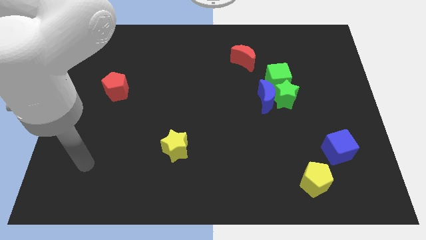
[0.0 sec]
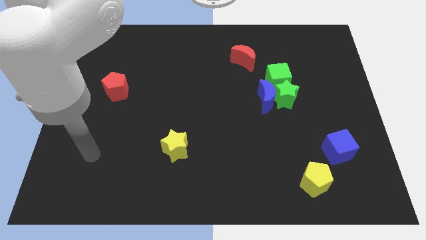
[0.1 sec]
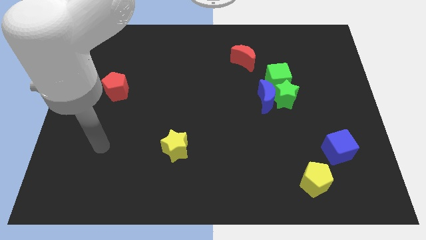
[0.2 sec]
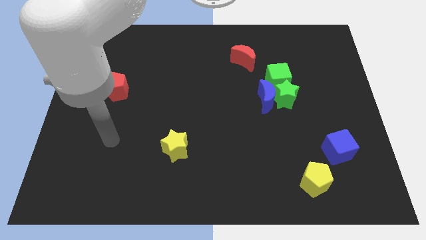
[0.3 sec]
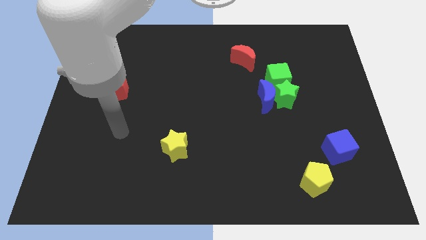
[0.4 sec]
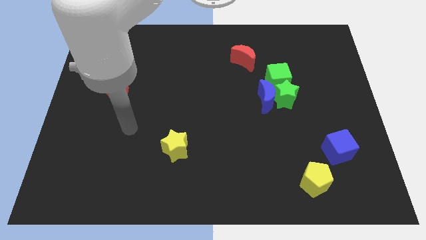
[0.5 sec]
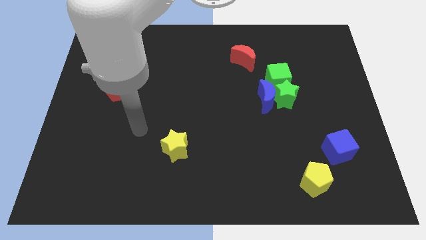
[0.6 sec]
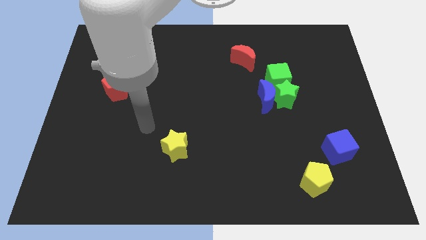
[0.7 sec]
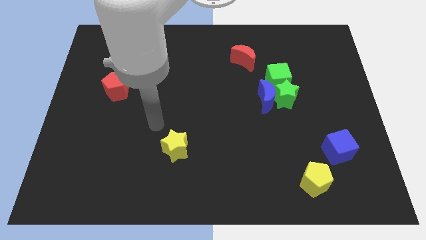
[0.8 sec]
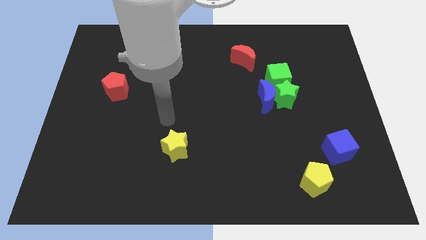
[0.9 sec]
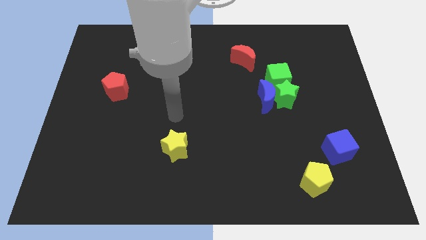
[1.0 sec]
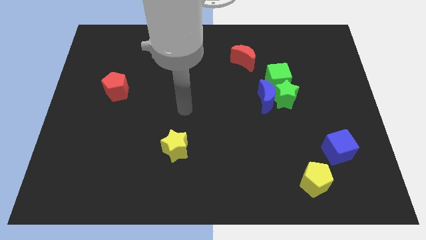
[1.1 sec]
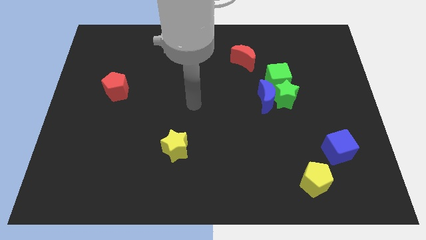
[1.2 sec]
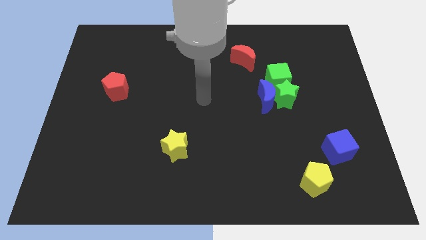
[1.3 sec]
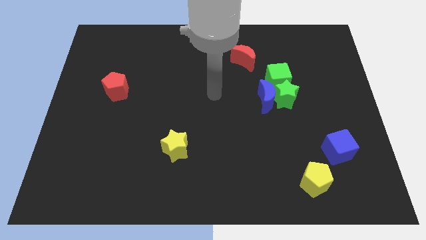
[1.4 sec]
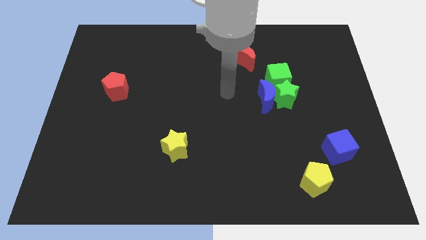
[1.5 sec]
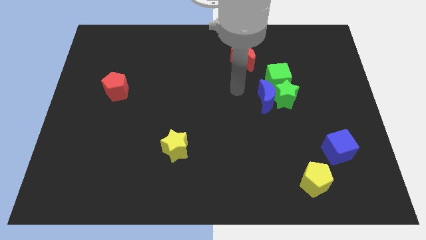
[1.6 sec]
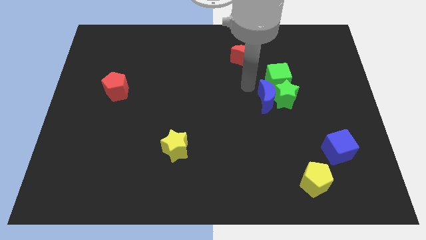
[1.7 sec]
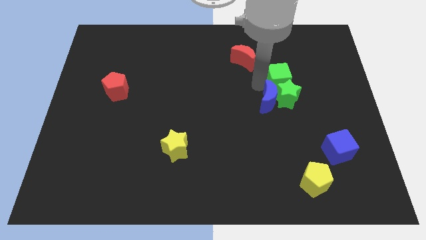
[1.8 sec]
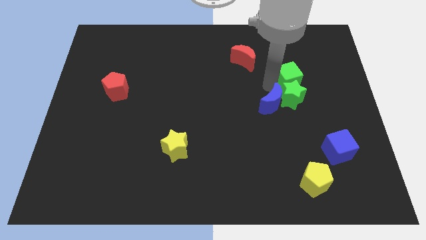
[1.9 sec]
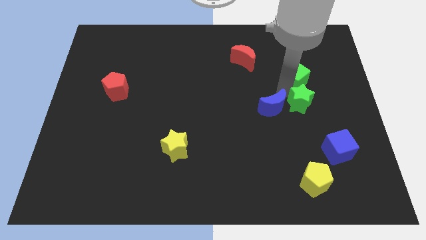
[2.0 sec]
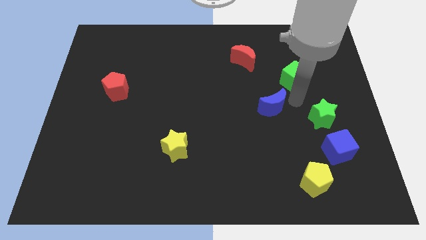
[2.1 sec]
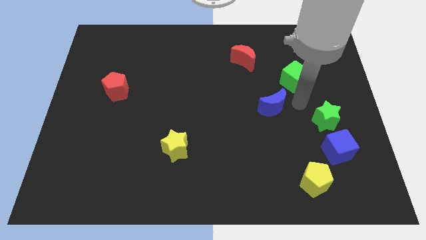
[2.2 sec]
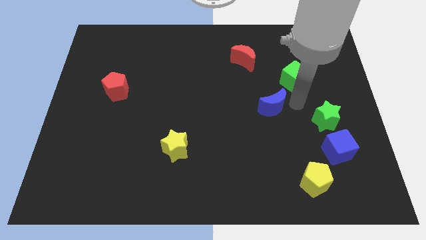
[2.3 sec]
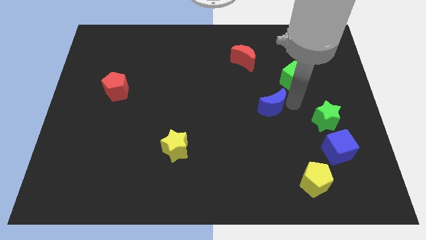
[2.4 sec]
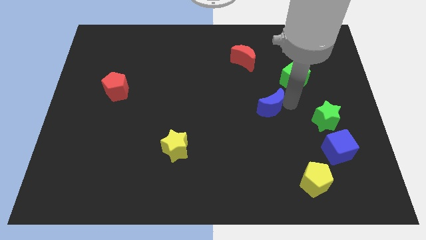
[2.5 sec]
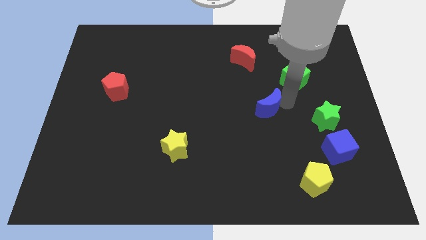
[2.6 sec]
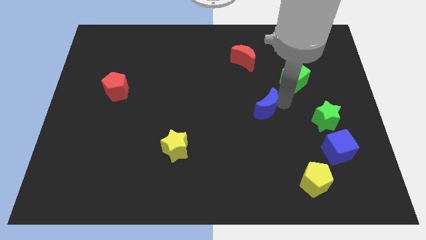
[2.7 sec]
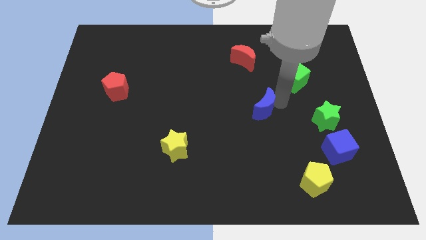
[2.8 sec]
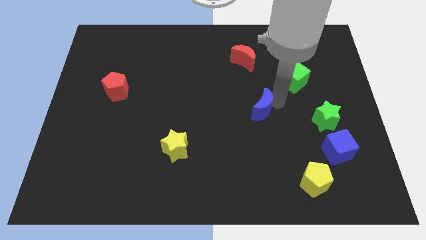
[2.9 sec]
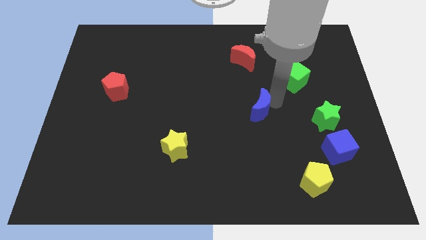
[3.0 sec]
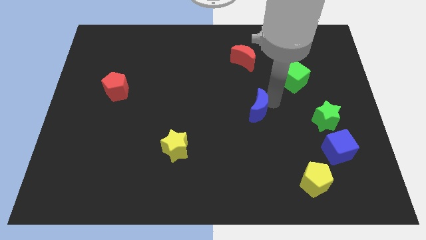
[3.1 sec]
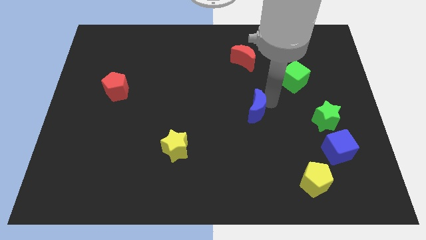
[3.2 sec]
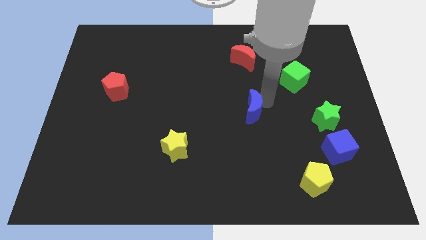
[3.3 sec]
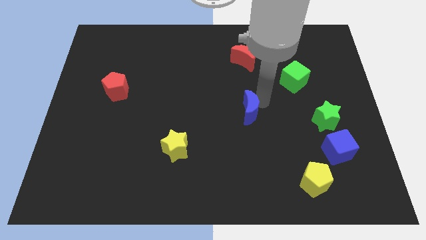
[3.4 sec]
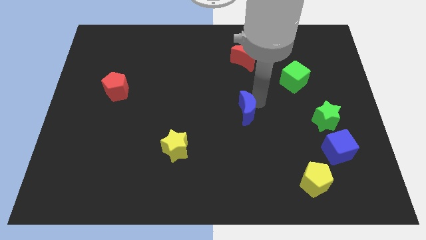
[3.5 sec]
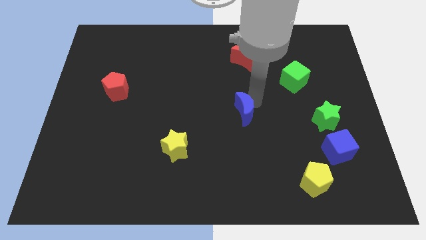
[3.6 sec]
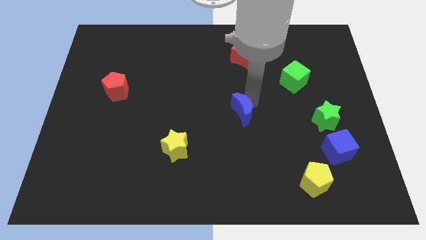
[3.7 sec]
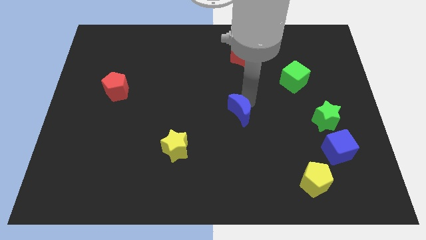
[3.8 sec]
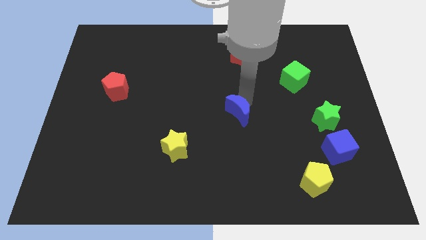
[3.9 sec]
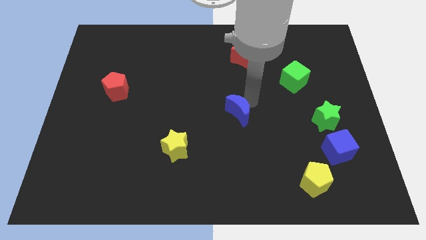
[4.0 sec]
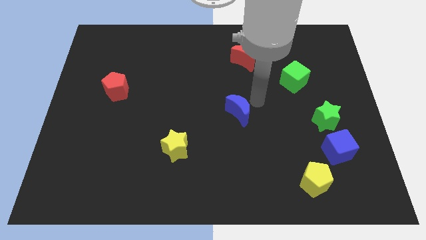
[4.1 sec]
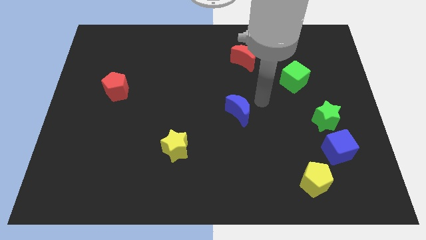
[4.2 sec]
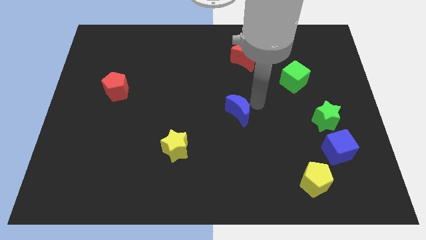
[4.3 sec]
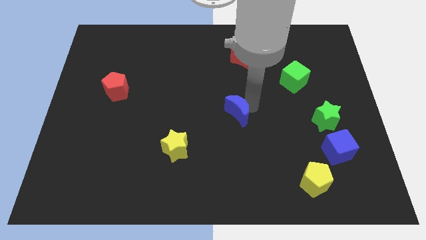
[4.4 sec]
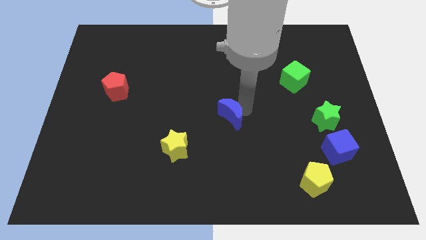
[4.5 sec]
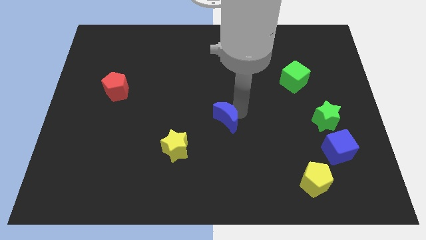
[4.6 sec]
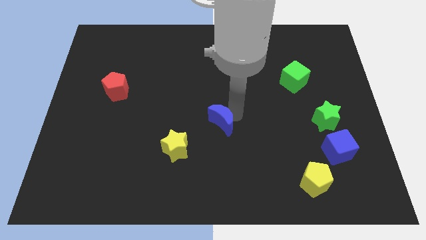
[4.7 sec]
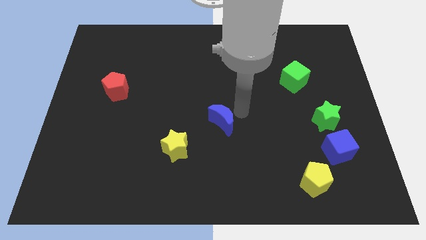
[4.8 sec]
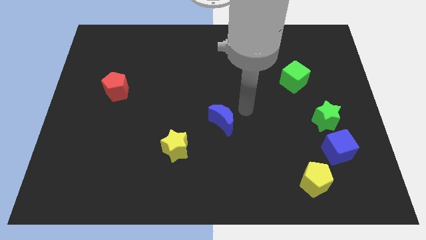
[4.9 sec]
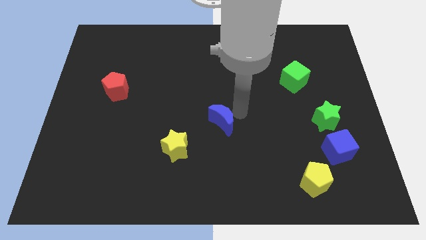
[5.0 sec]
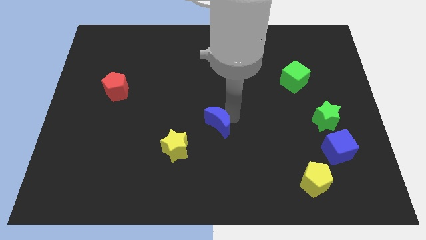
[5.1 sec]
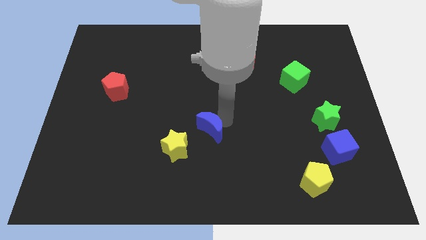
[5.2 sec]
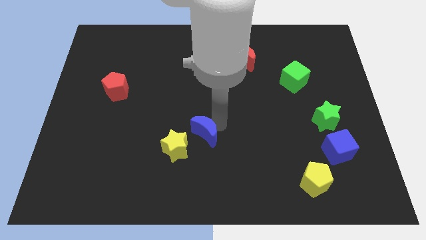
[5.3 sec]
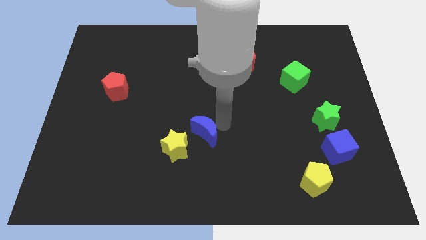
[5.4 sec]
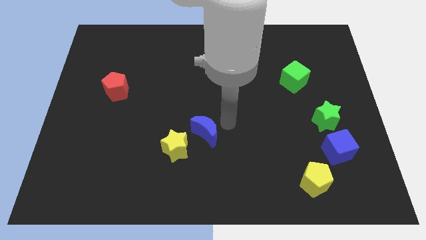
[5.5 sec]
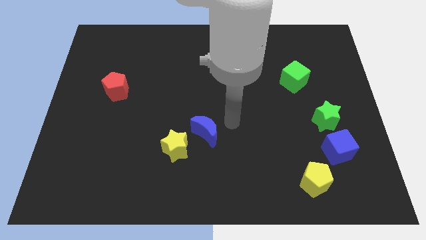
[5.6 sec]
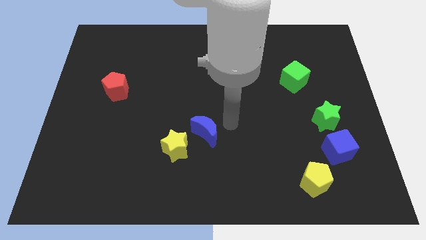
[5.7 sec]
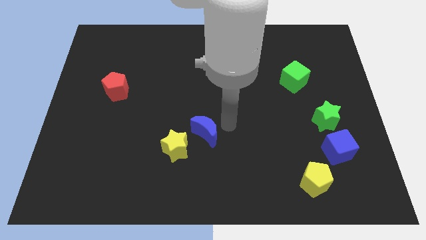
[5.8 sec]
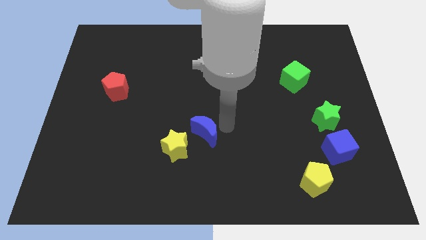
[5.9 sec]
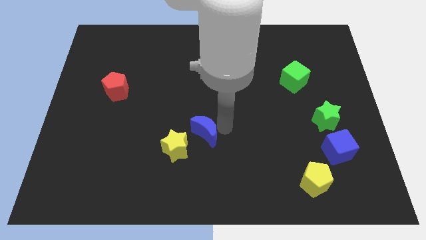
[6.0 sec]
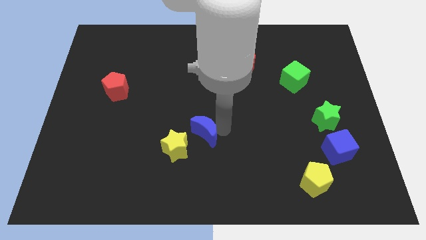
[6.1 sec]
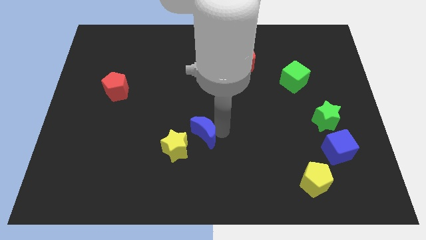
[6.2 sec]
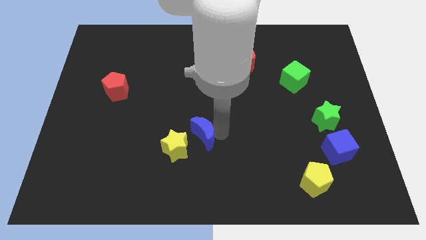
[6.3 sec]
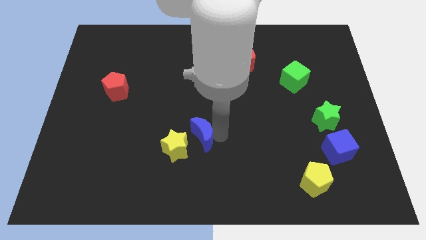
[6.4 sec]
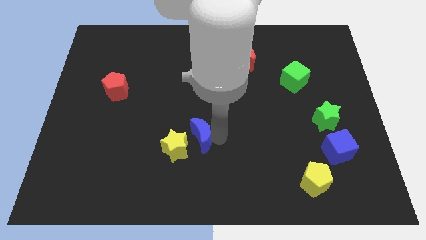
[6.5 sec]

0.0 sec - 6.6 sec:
put the blue moon next to the yellow star

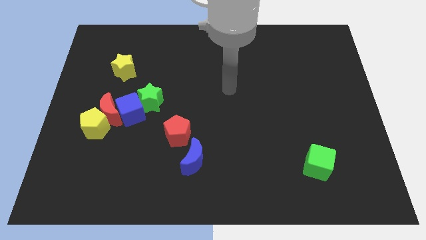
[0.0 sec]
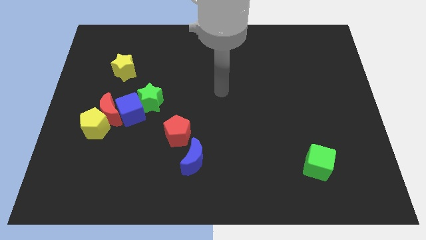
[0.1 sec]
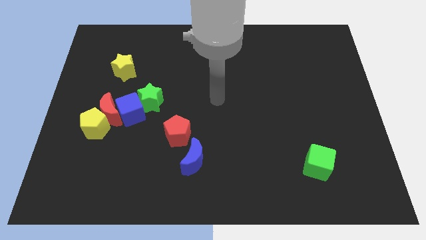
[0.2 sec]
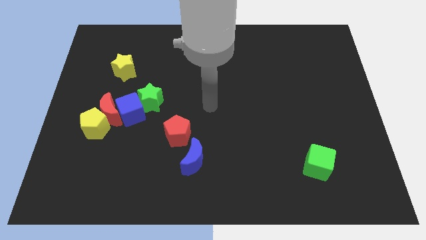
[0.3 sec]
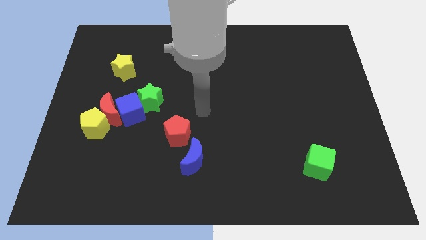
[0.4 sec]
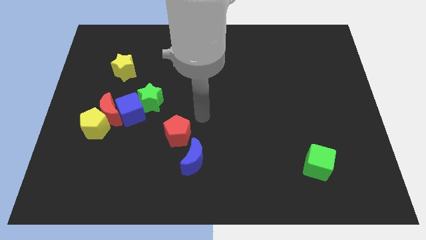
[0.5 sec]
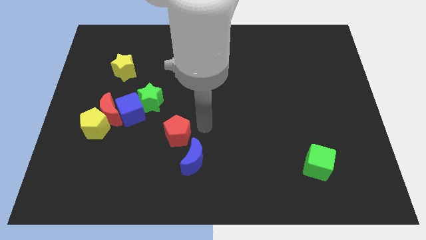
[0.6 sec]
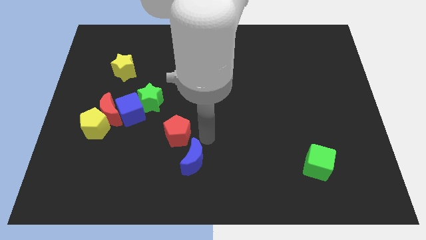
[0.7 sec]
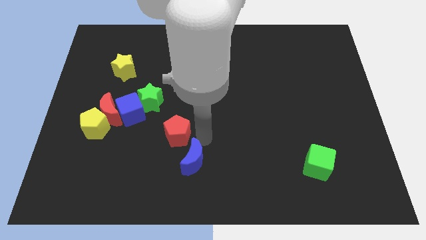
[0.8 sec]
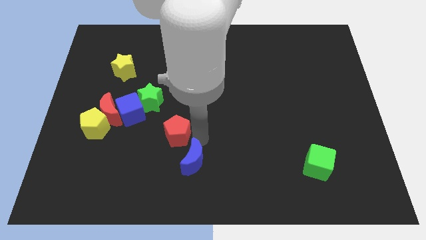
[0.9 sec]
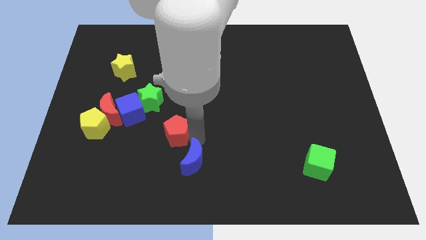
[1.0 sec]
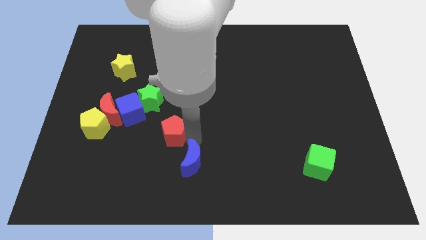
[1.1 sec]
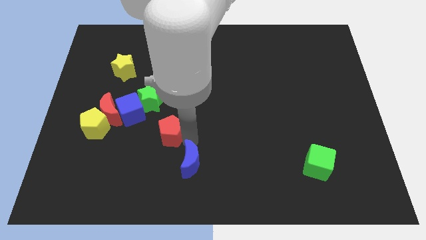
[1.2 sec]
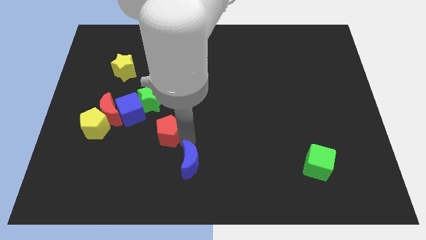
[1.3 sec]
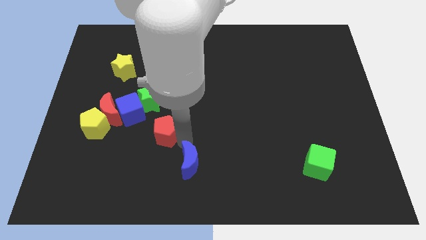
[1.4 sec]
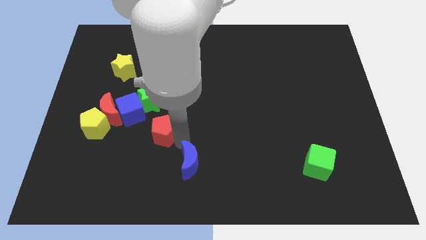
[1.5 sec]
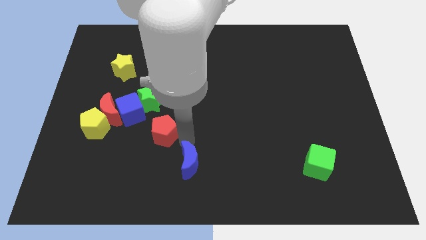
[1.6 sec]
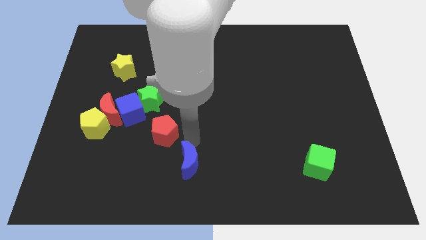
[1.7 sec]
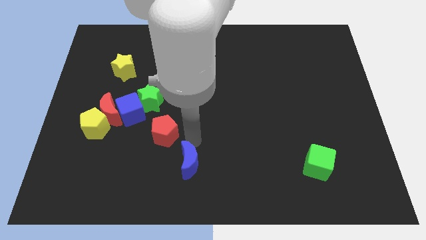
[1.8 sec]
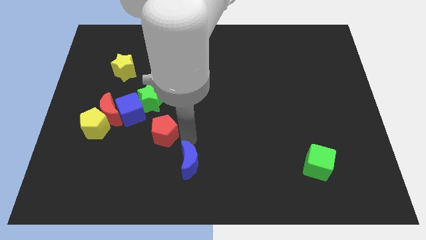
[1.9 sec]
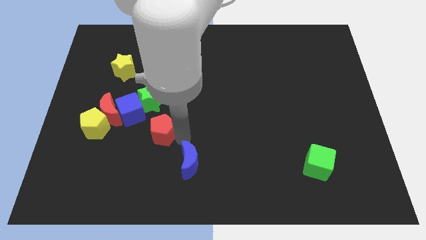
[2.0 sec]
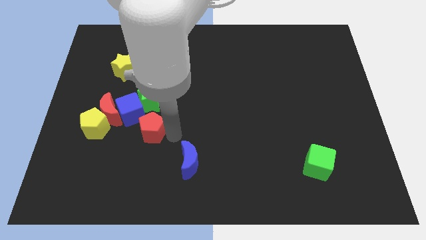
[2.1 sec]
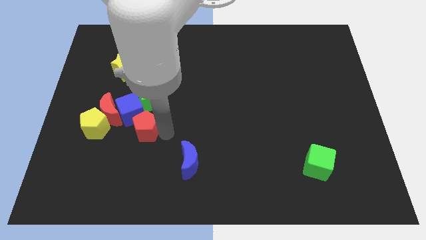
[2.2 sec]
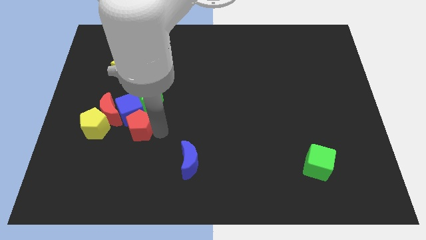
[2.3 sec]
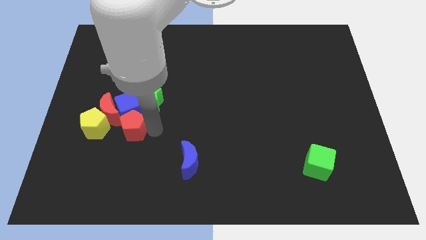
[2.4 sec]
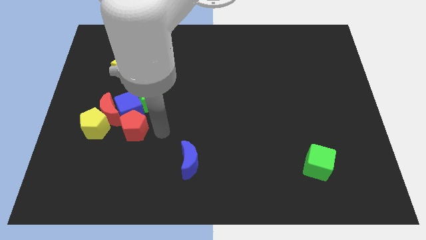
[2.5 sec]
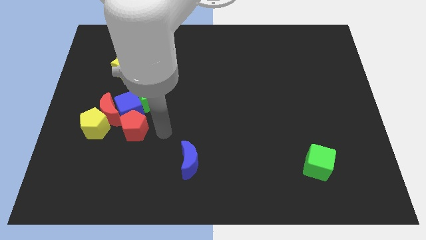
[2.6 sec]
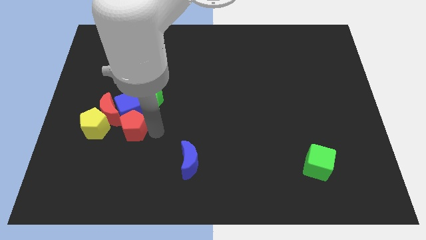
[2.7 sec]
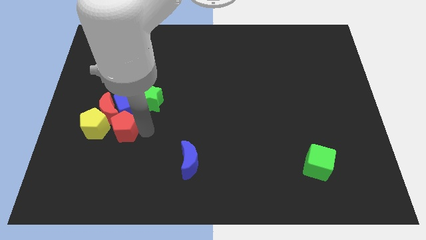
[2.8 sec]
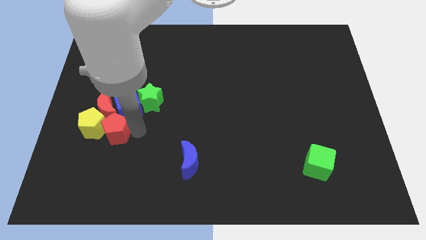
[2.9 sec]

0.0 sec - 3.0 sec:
put the red pentagon next to the yellow pentagon
